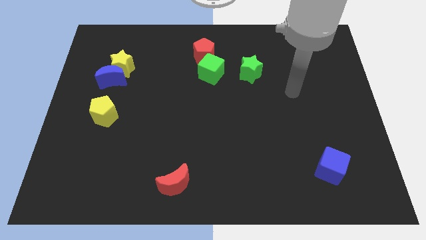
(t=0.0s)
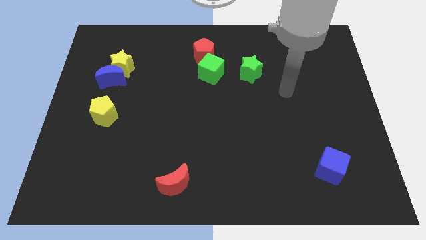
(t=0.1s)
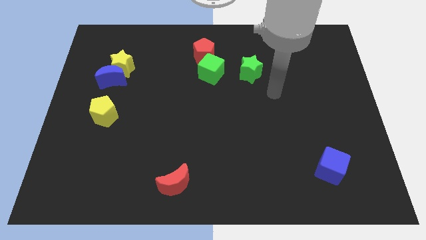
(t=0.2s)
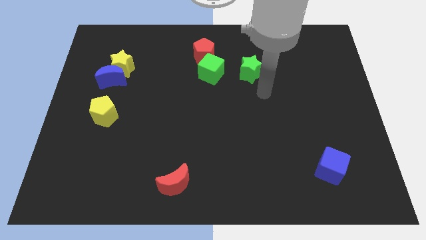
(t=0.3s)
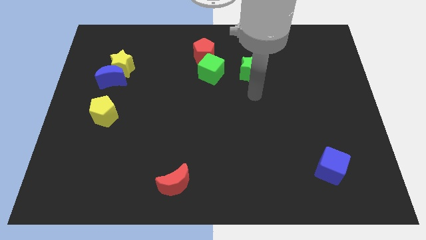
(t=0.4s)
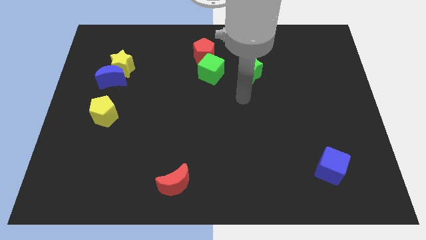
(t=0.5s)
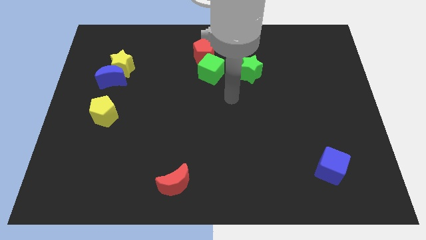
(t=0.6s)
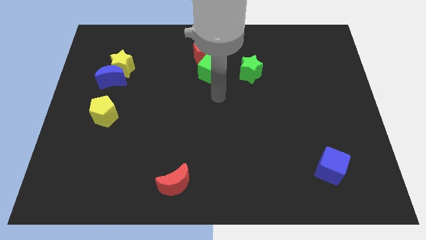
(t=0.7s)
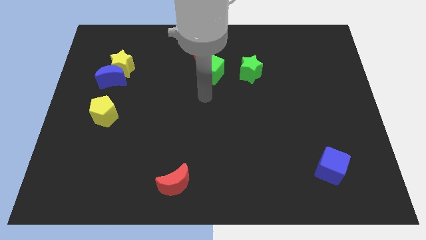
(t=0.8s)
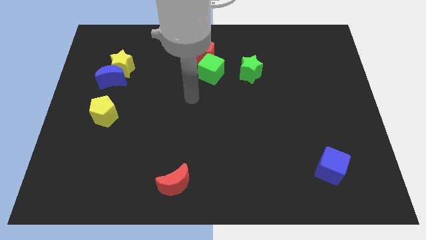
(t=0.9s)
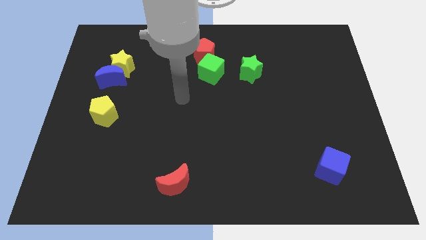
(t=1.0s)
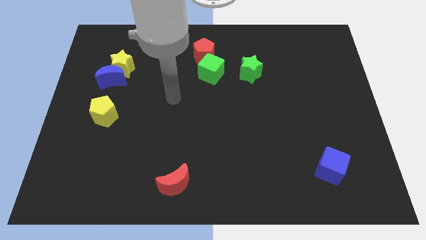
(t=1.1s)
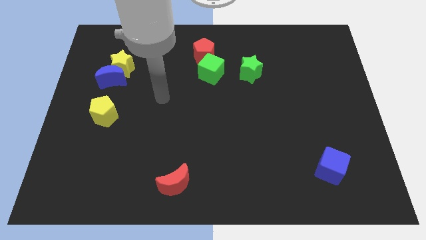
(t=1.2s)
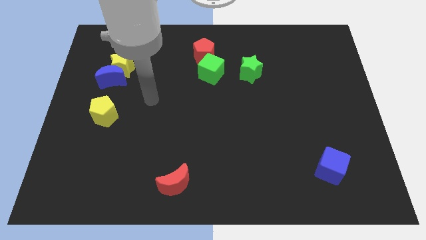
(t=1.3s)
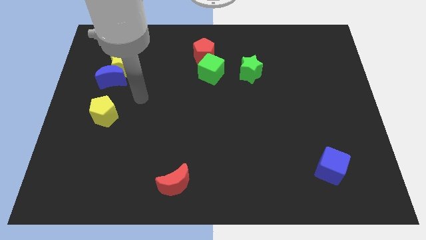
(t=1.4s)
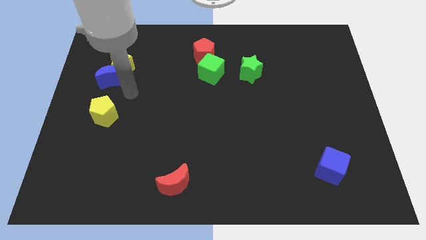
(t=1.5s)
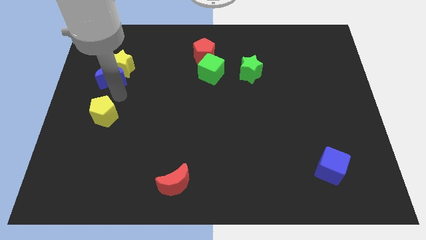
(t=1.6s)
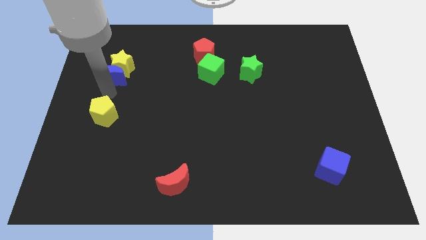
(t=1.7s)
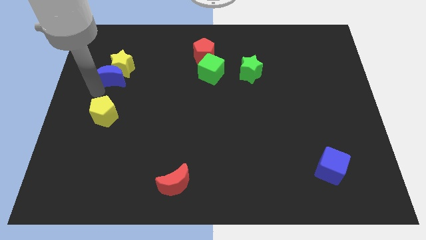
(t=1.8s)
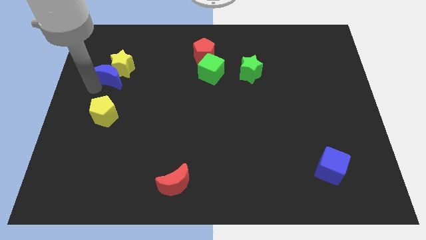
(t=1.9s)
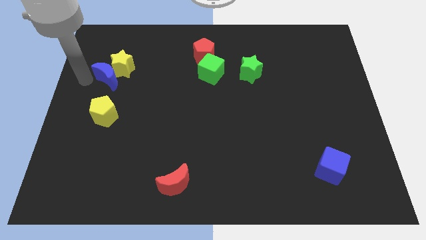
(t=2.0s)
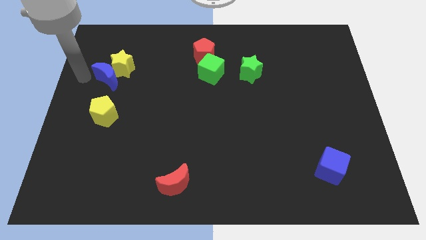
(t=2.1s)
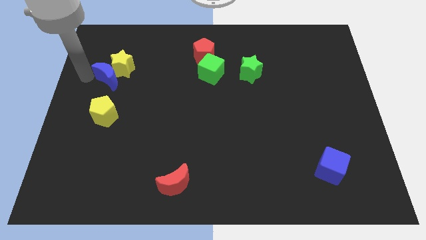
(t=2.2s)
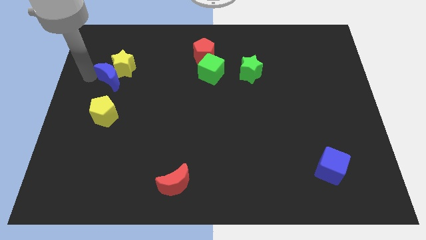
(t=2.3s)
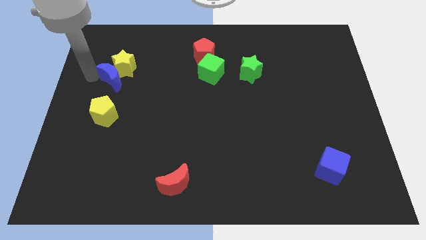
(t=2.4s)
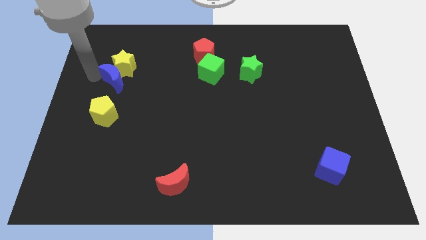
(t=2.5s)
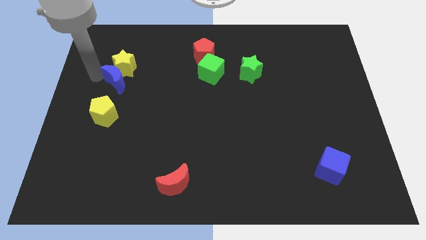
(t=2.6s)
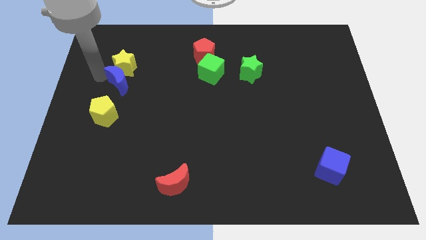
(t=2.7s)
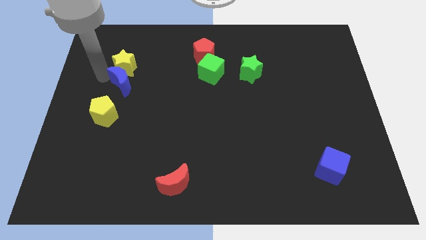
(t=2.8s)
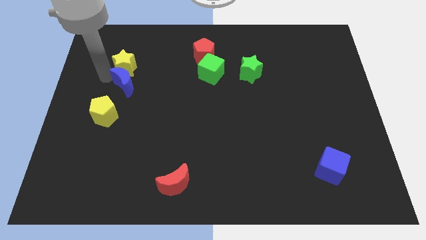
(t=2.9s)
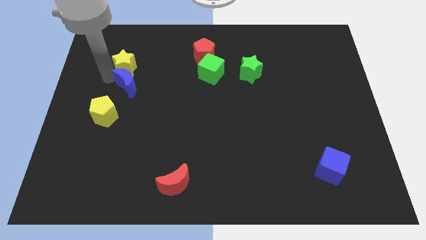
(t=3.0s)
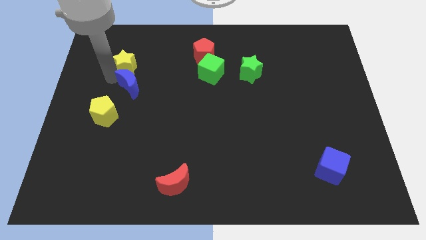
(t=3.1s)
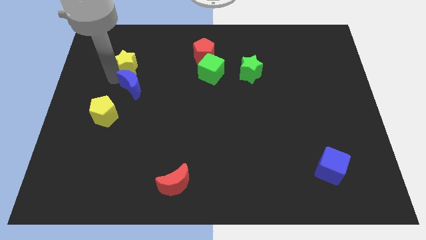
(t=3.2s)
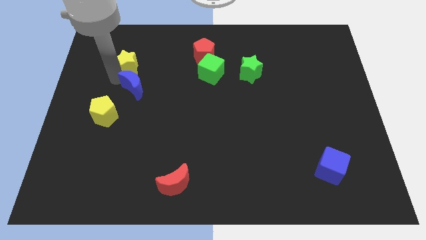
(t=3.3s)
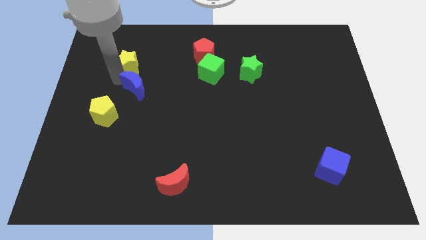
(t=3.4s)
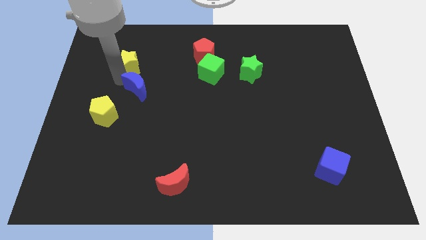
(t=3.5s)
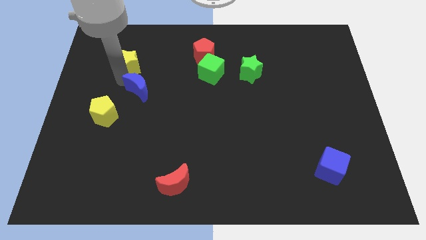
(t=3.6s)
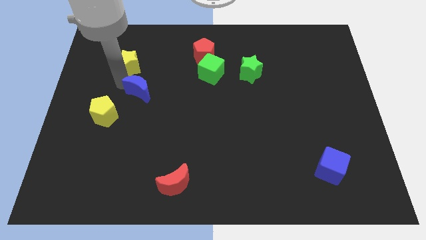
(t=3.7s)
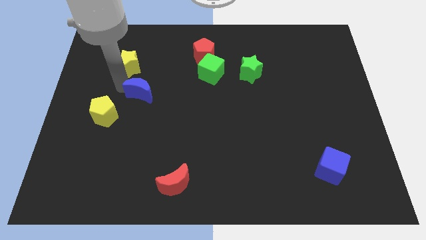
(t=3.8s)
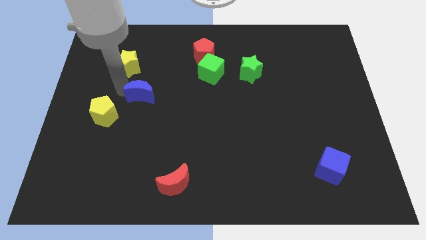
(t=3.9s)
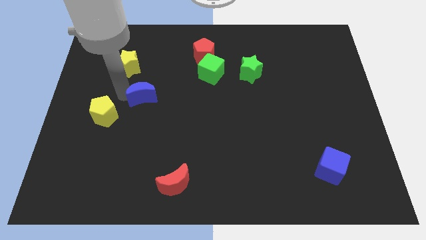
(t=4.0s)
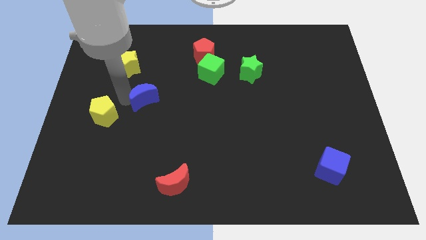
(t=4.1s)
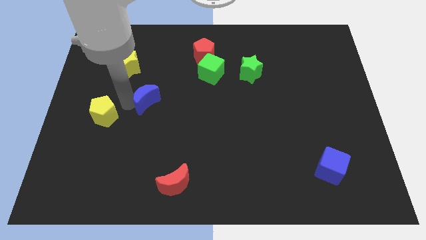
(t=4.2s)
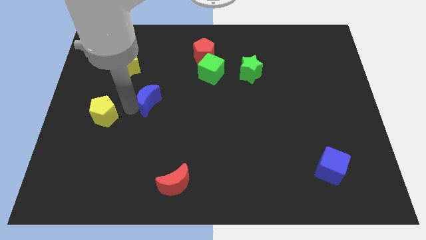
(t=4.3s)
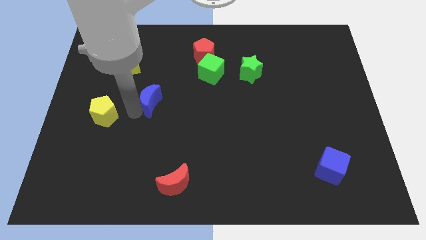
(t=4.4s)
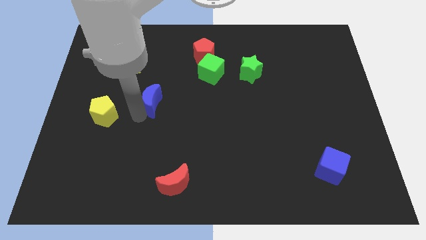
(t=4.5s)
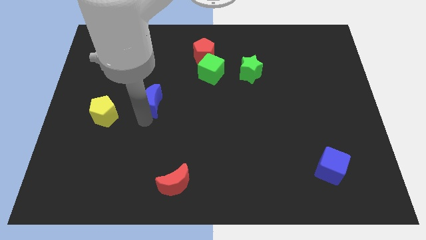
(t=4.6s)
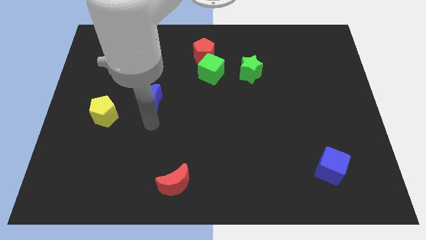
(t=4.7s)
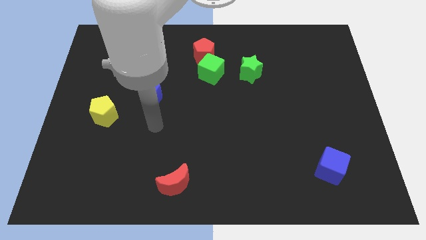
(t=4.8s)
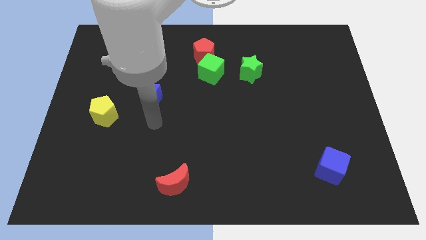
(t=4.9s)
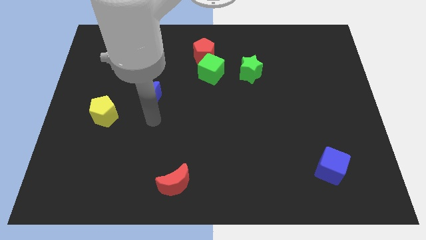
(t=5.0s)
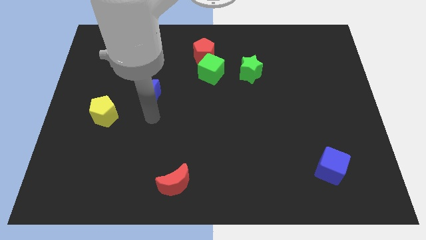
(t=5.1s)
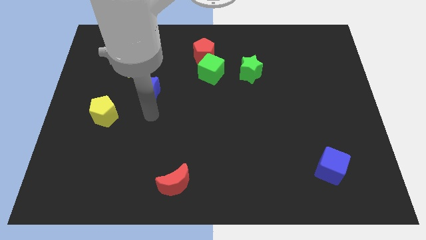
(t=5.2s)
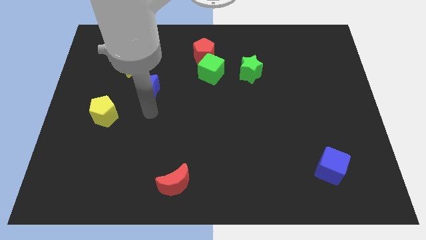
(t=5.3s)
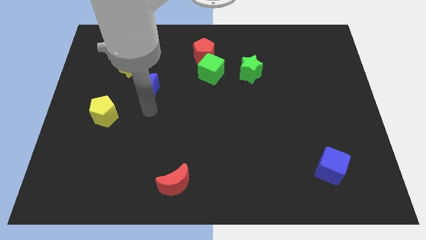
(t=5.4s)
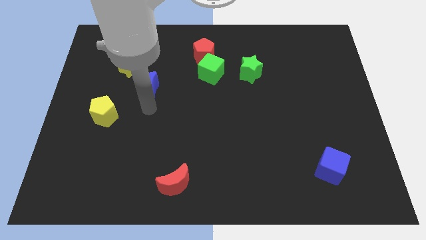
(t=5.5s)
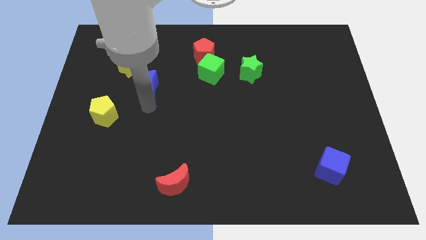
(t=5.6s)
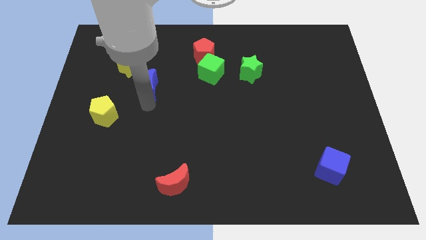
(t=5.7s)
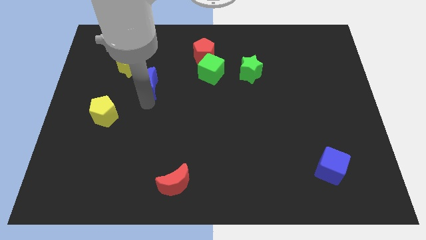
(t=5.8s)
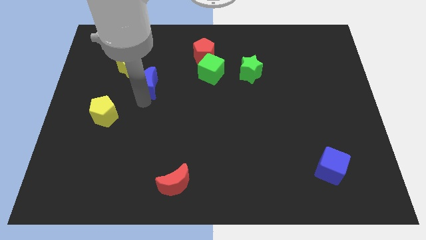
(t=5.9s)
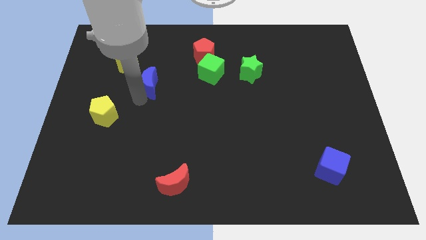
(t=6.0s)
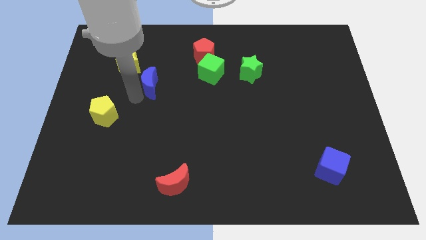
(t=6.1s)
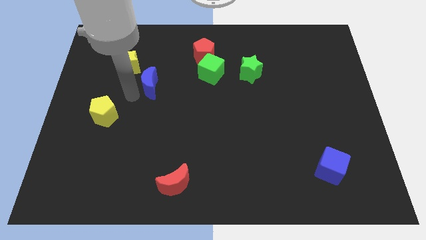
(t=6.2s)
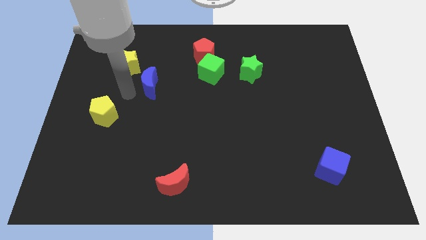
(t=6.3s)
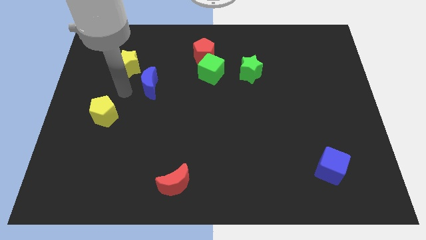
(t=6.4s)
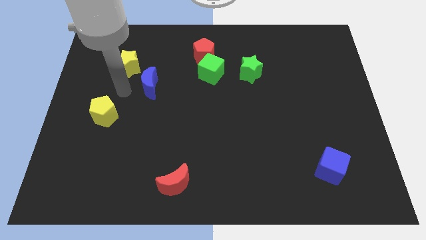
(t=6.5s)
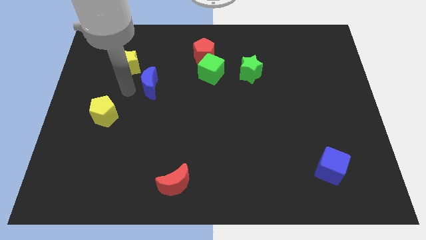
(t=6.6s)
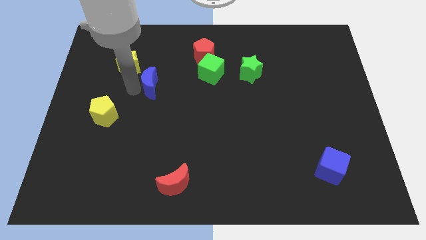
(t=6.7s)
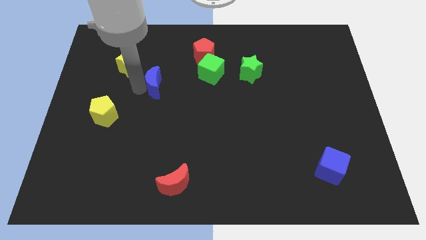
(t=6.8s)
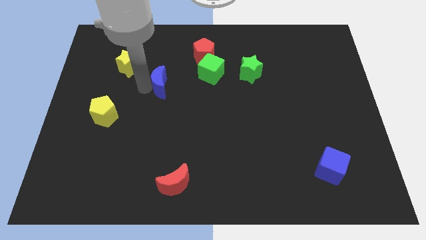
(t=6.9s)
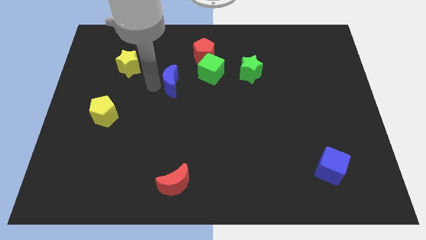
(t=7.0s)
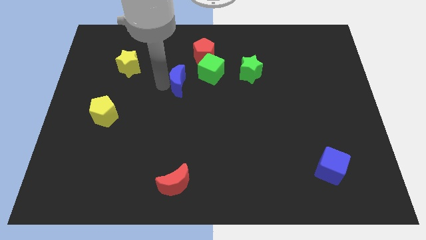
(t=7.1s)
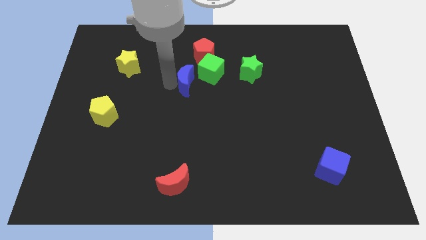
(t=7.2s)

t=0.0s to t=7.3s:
slide the blue moon to the bottom side of the red pentagon

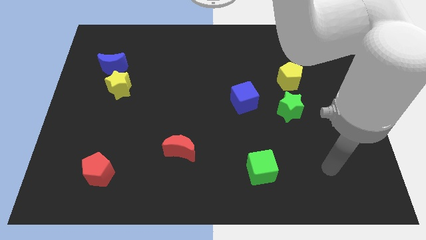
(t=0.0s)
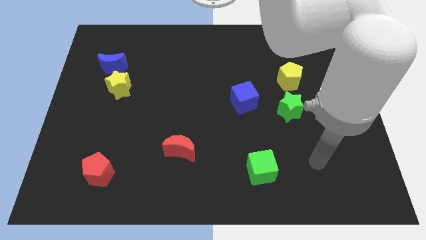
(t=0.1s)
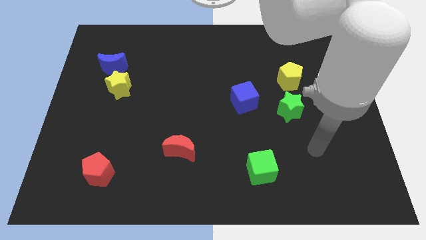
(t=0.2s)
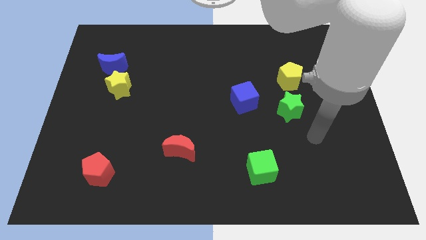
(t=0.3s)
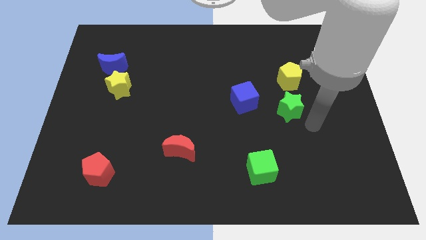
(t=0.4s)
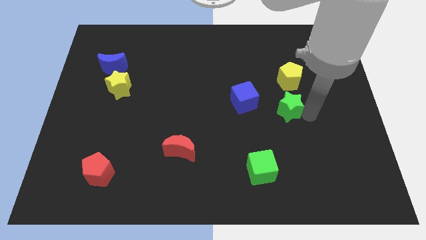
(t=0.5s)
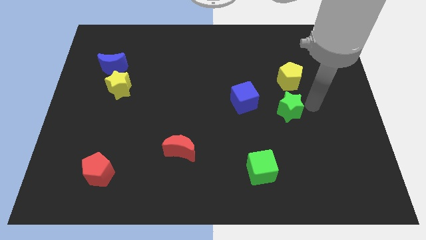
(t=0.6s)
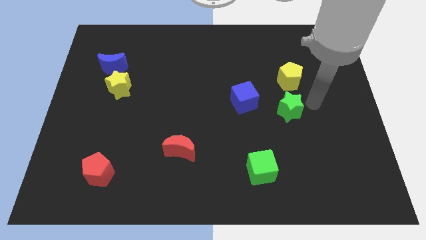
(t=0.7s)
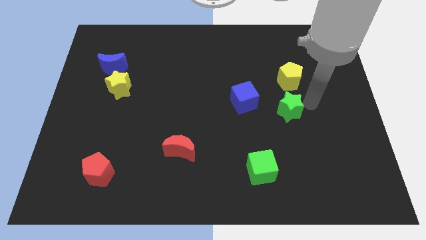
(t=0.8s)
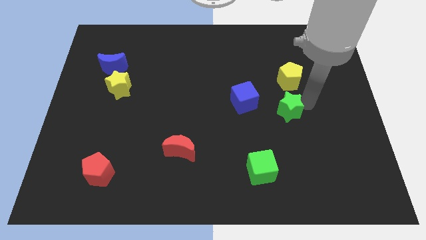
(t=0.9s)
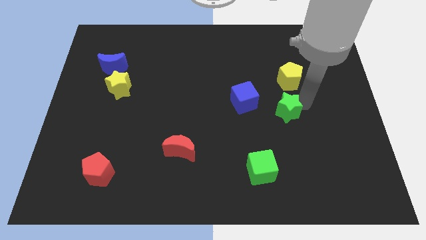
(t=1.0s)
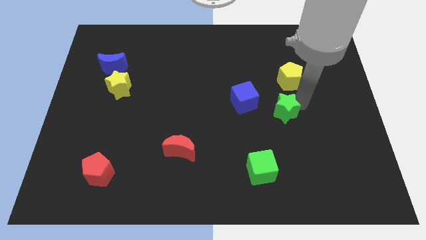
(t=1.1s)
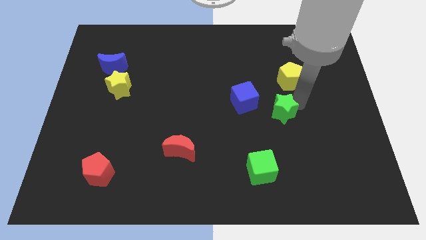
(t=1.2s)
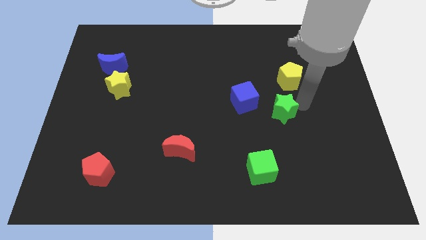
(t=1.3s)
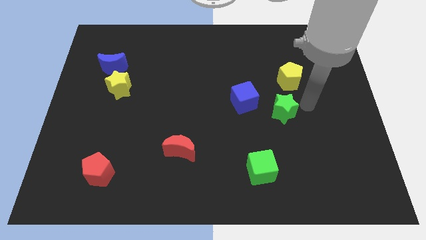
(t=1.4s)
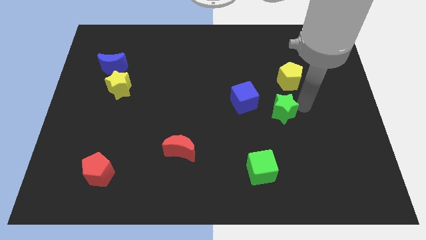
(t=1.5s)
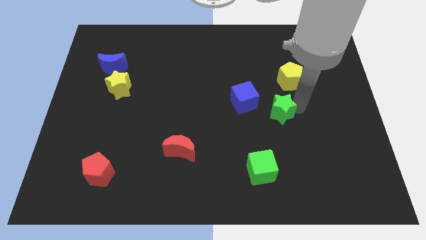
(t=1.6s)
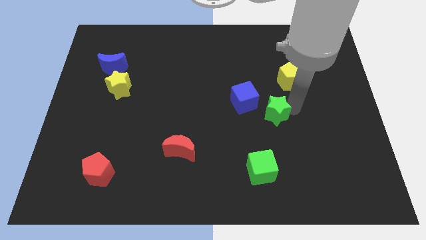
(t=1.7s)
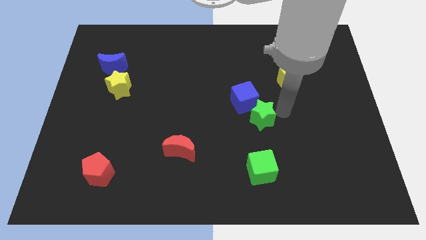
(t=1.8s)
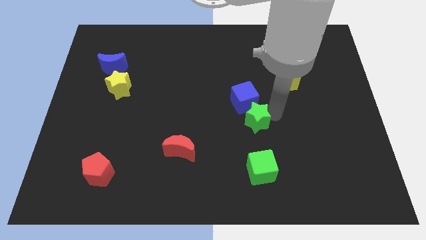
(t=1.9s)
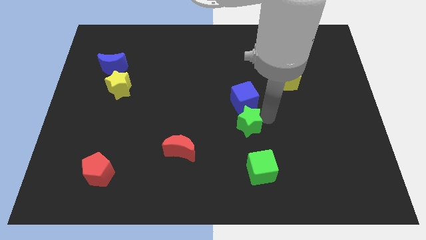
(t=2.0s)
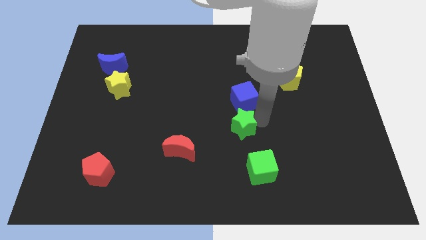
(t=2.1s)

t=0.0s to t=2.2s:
move the green star diagonally down and to the left of the blue cube
